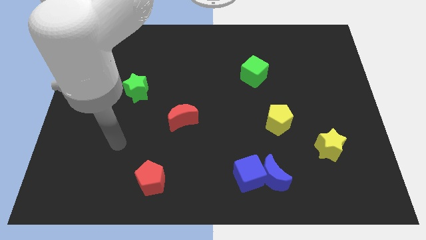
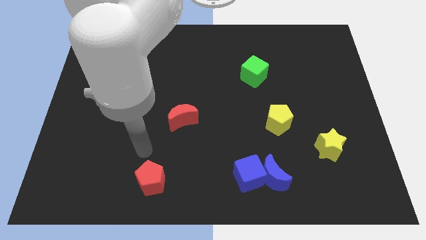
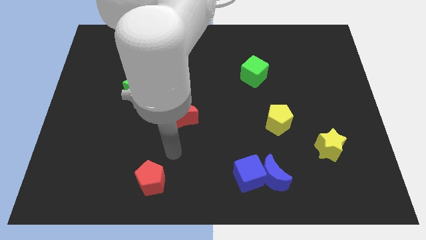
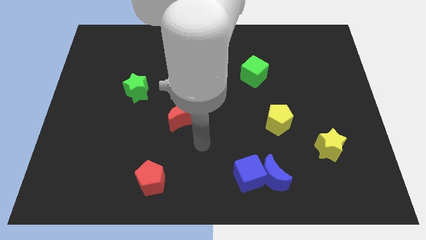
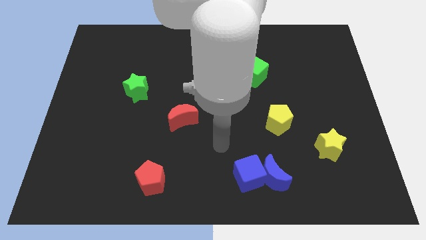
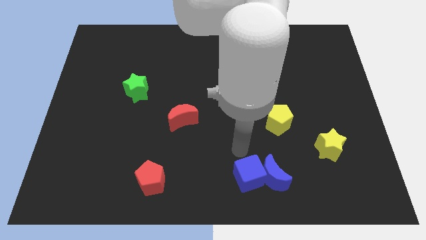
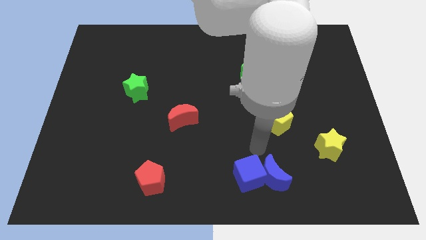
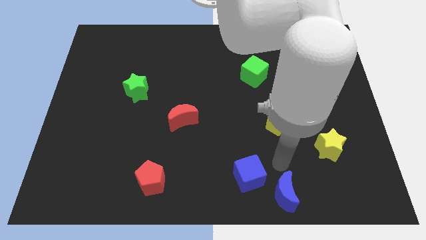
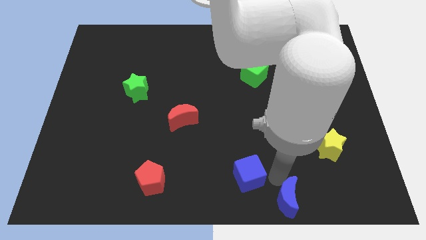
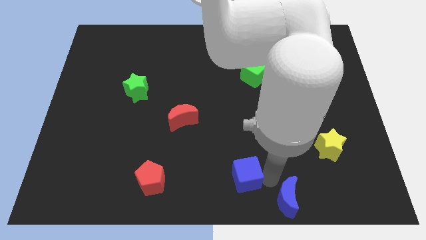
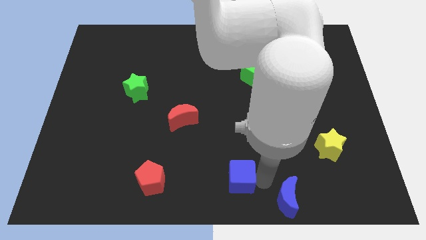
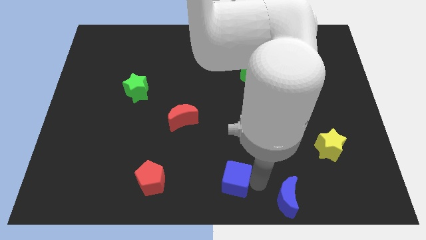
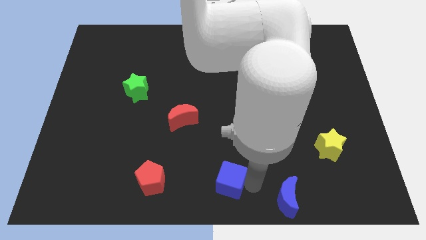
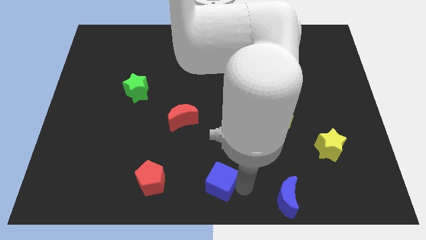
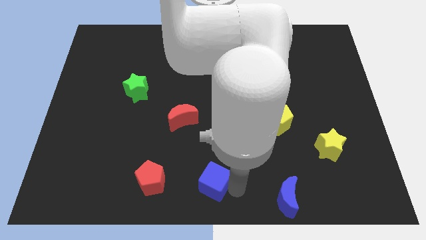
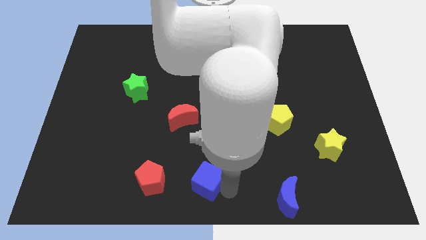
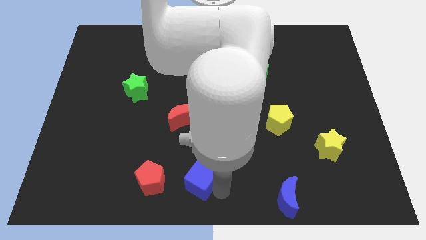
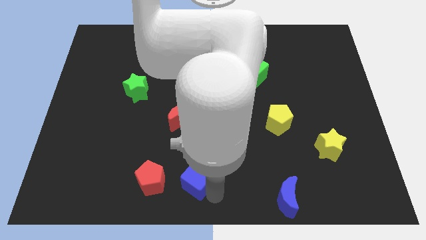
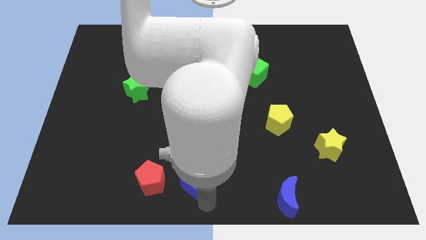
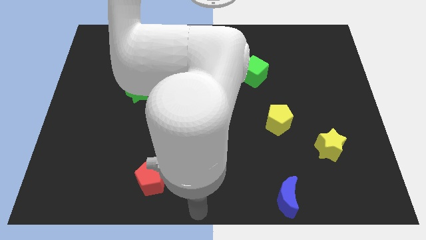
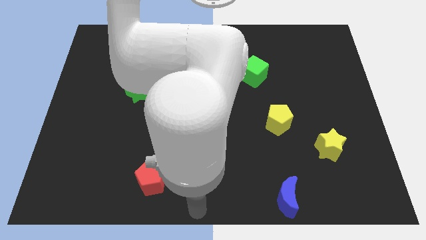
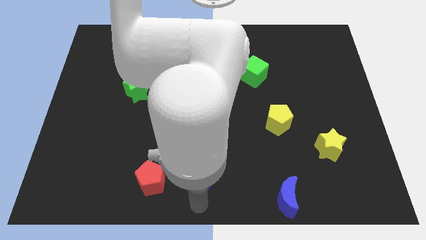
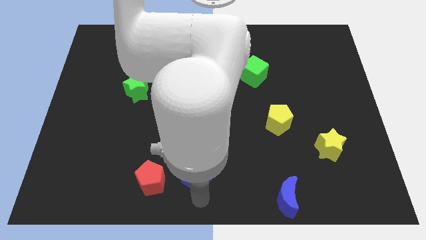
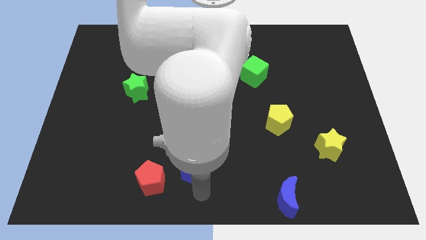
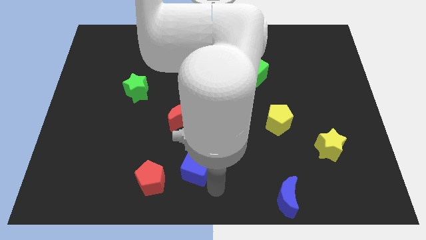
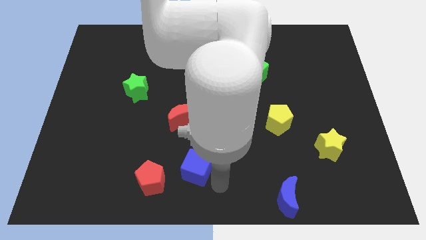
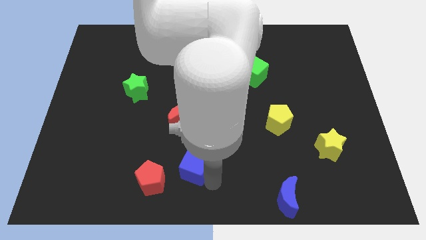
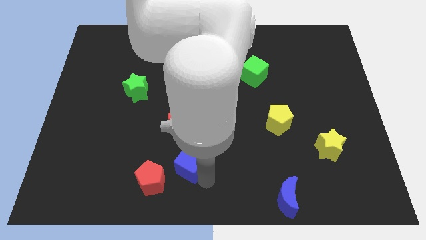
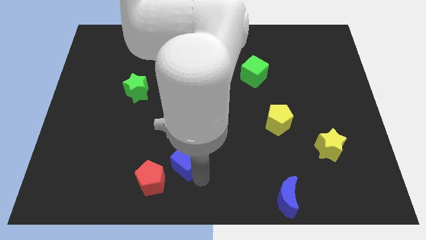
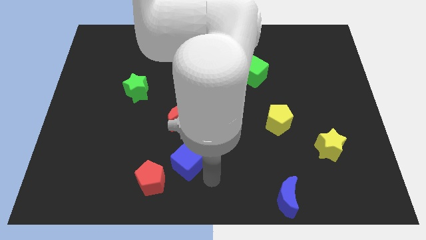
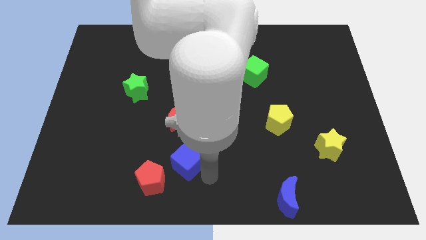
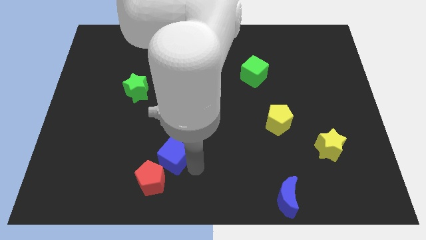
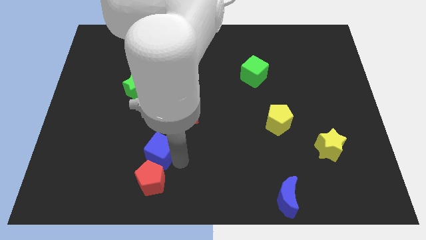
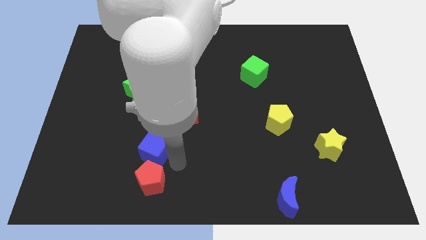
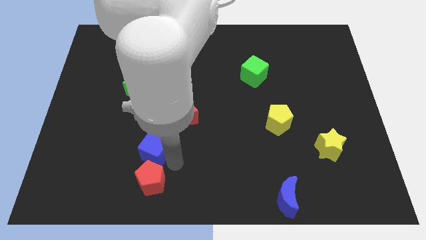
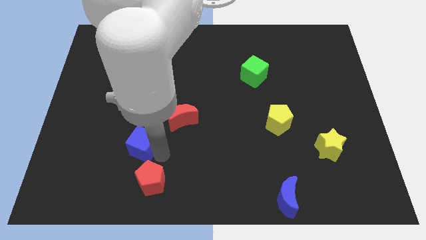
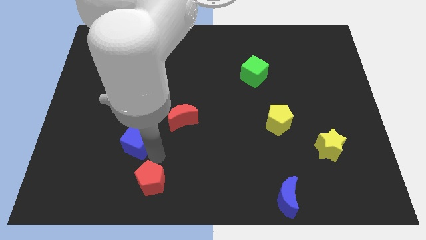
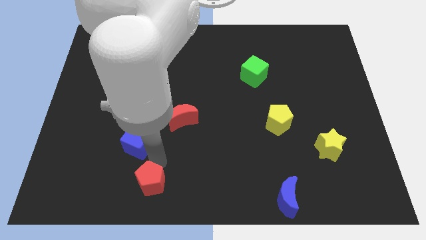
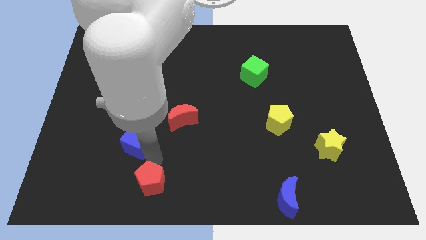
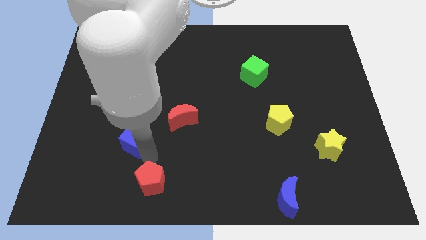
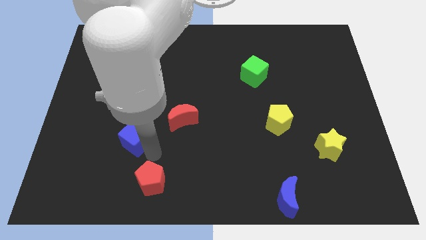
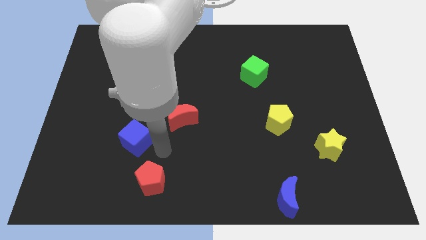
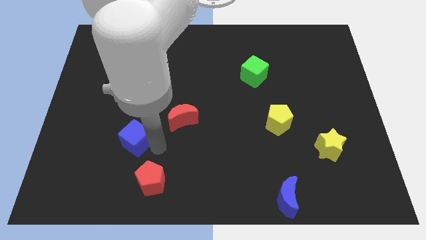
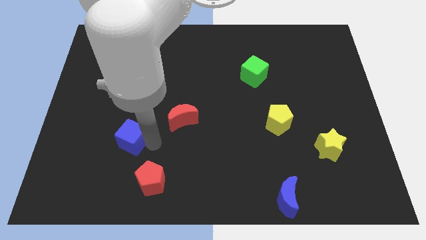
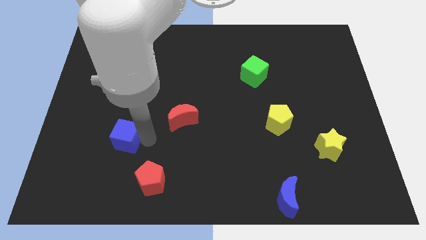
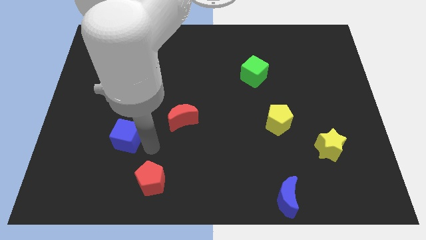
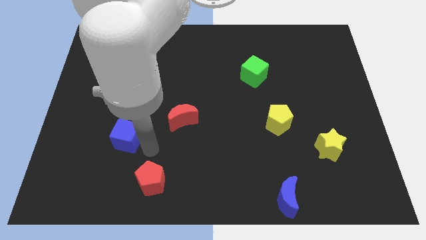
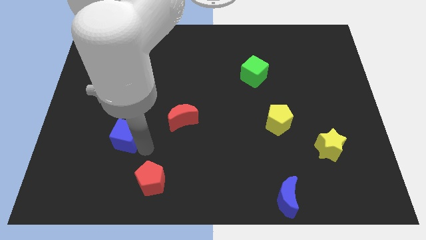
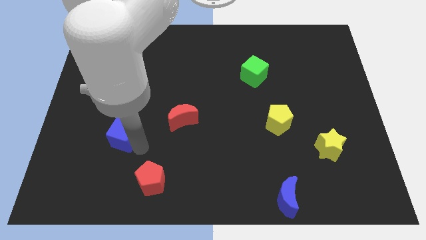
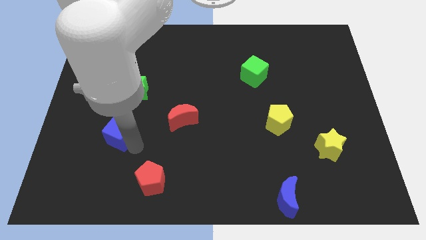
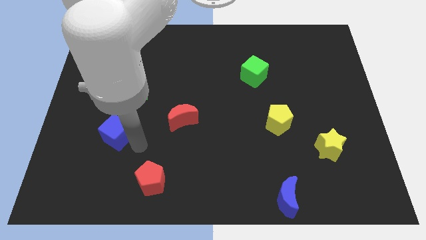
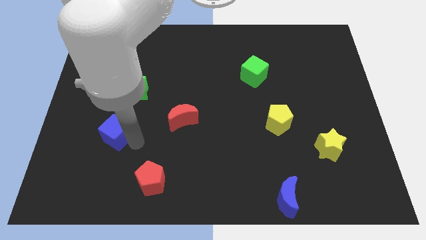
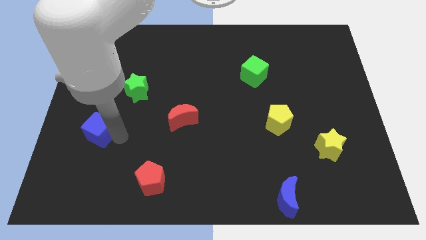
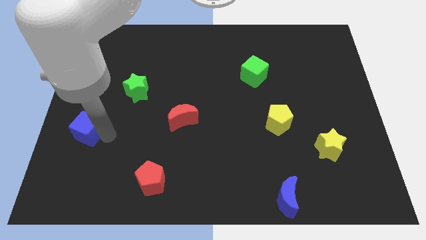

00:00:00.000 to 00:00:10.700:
push the blue cube to the center left

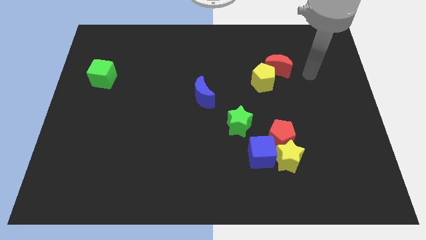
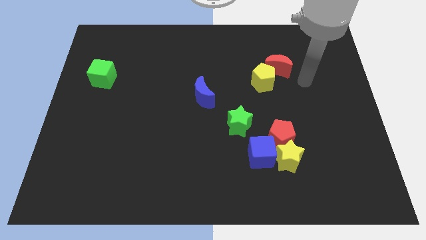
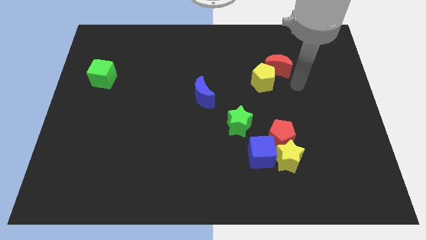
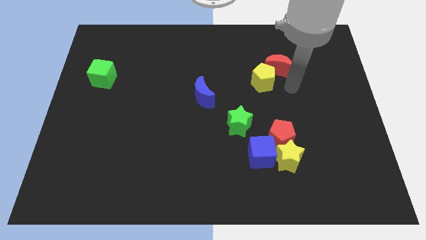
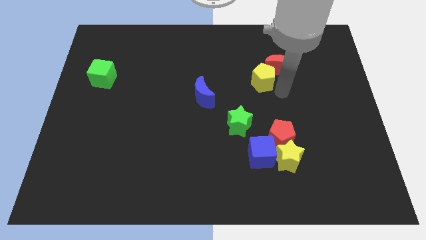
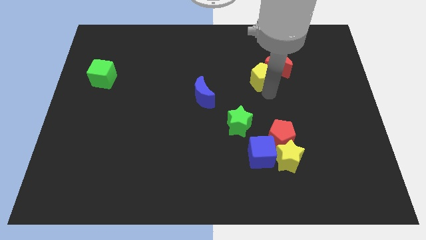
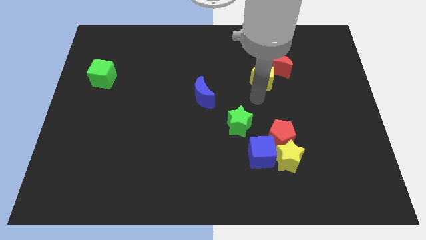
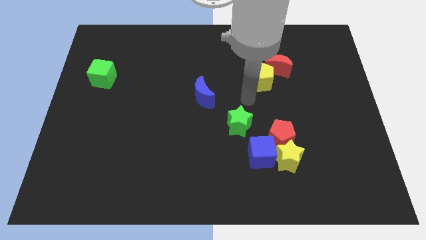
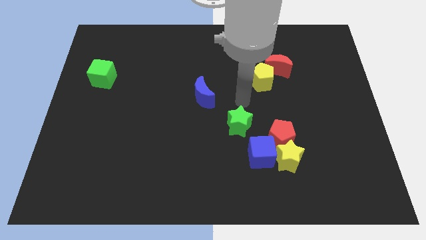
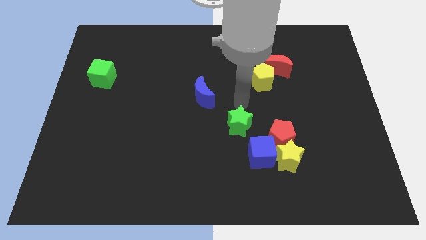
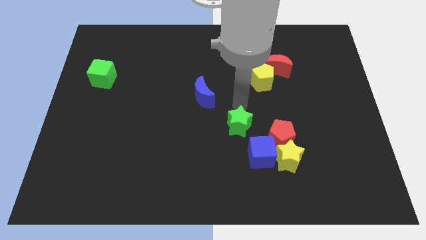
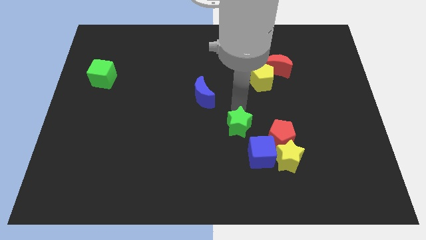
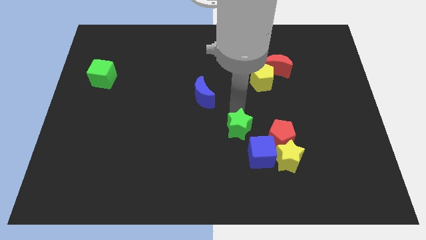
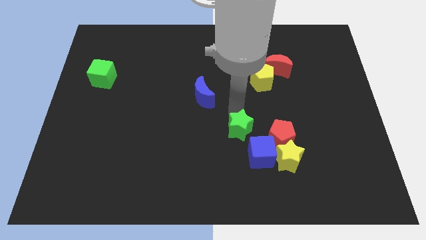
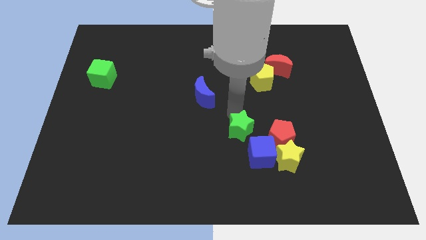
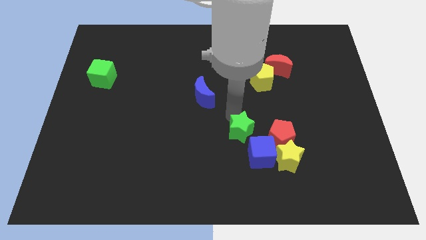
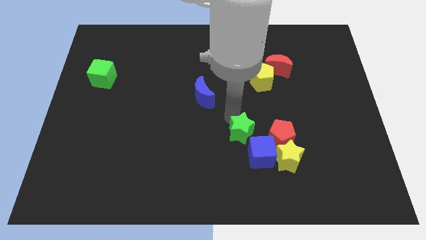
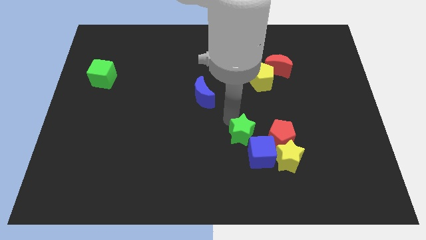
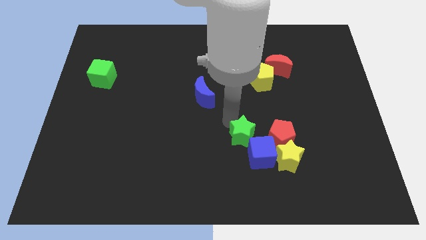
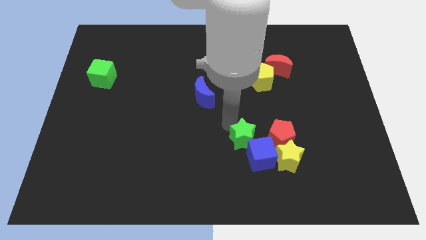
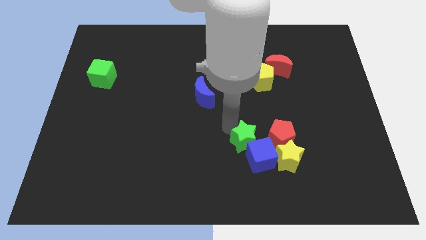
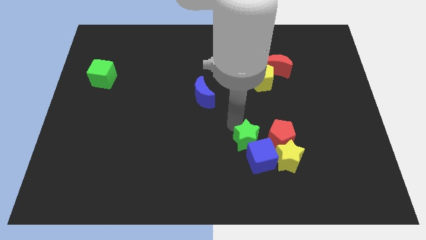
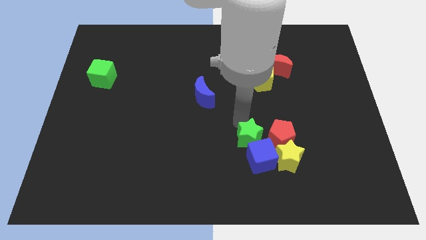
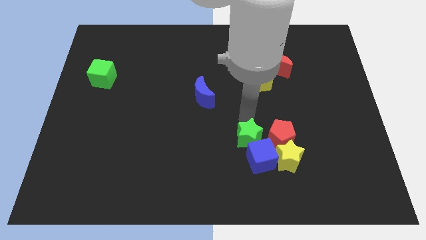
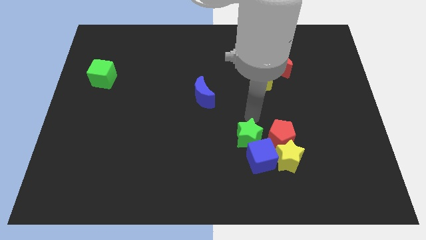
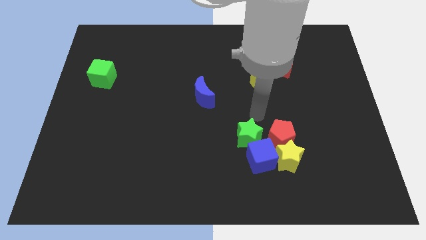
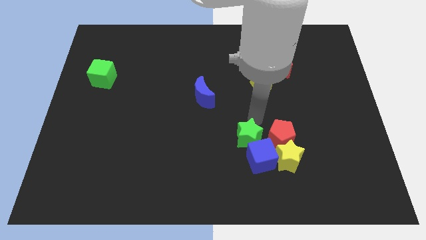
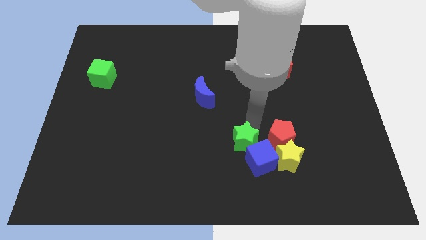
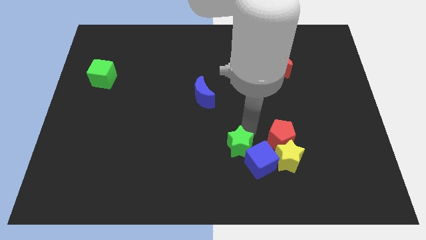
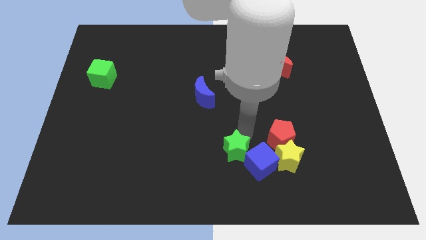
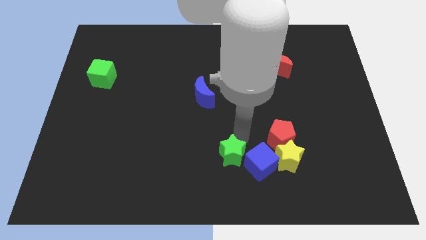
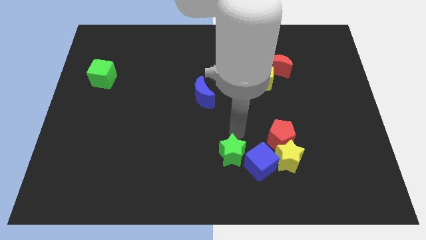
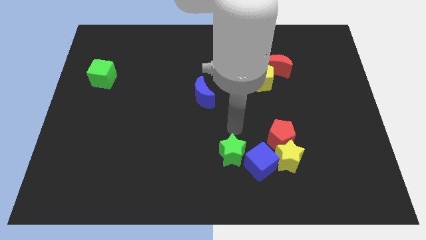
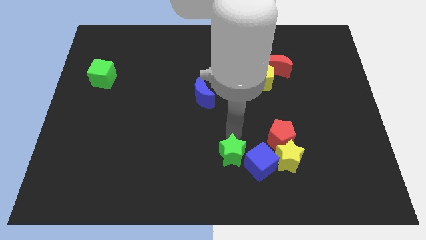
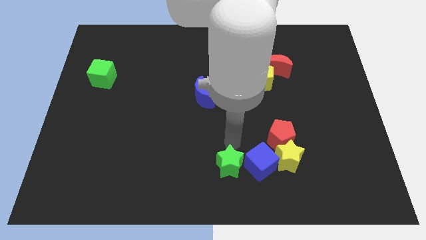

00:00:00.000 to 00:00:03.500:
put the green star to the bottom side
